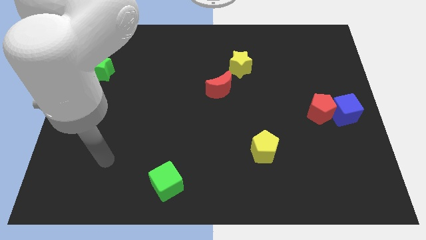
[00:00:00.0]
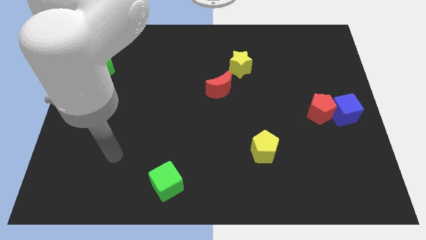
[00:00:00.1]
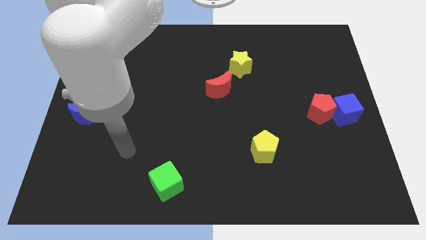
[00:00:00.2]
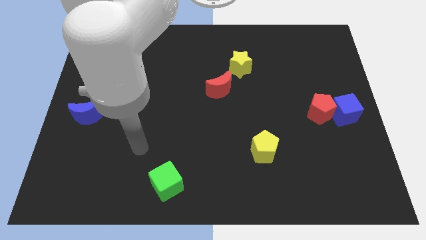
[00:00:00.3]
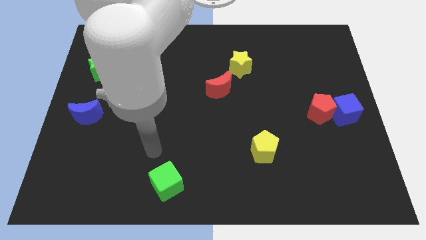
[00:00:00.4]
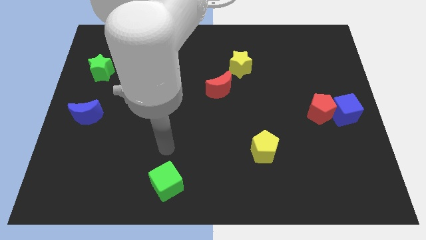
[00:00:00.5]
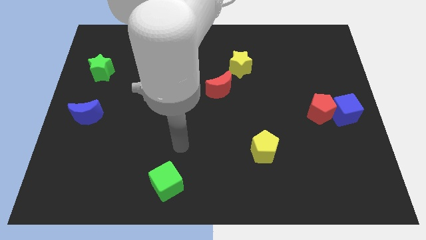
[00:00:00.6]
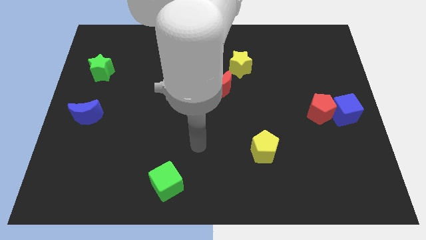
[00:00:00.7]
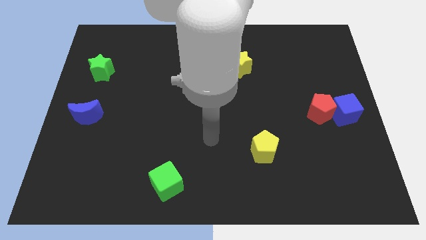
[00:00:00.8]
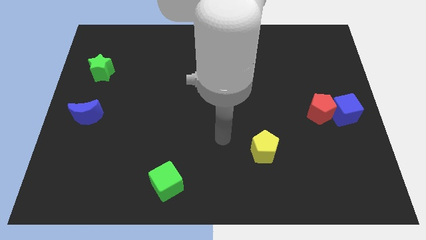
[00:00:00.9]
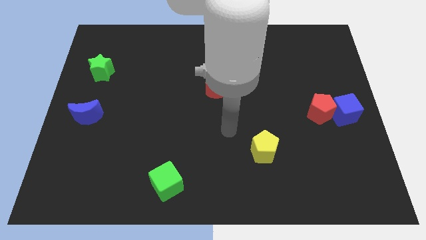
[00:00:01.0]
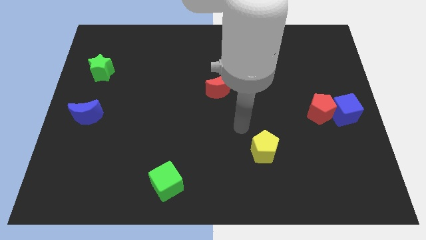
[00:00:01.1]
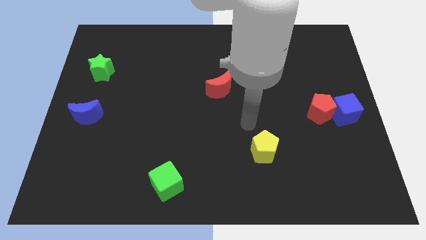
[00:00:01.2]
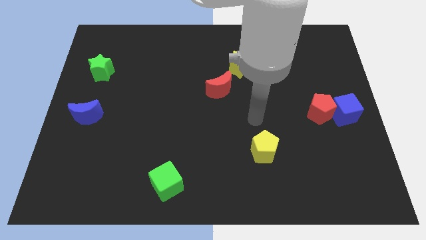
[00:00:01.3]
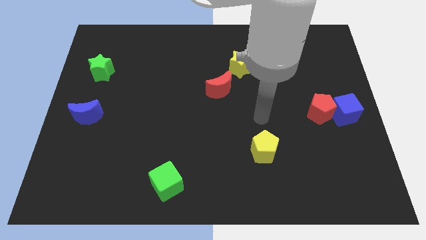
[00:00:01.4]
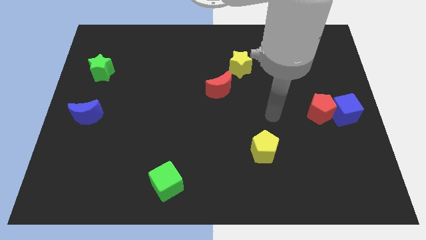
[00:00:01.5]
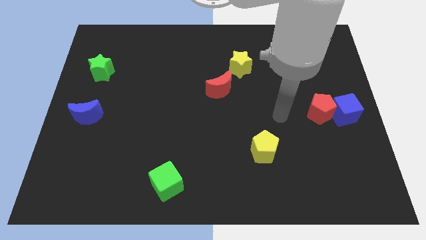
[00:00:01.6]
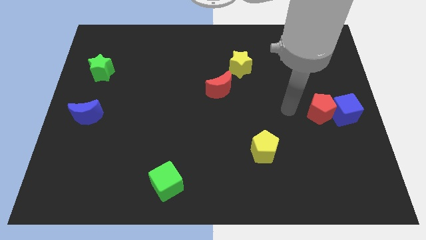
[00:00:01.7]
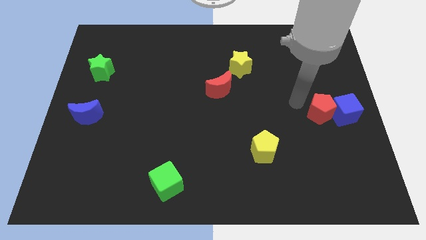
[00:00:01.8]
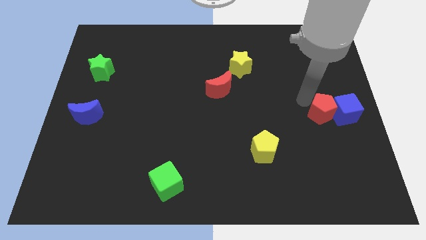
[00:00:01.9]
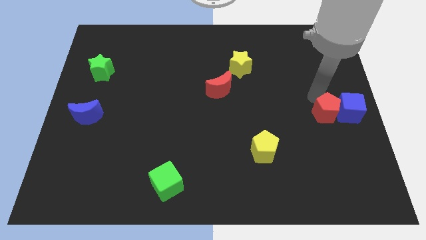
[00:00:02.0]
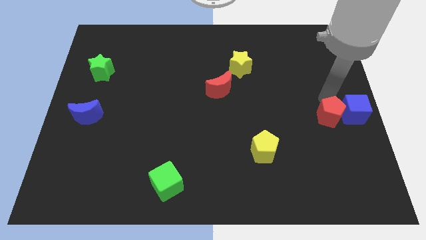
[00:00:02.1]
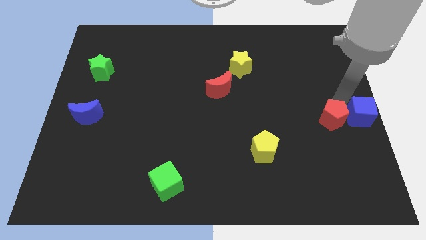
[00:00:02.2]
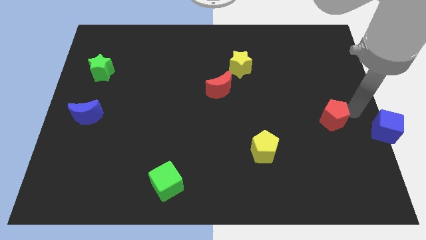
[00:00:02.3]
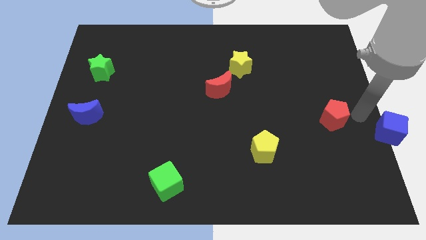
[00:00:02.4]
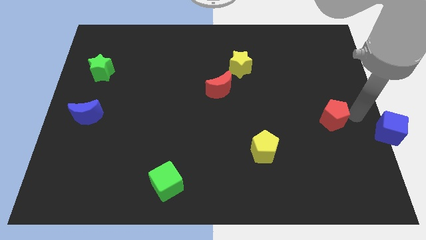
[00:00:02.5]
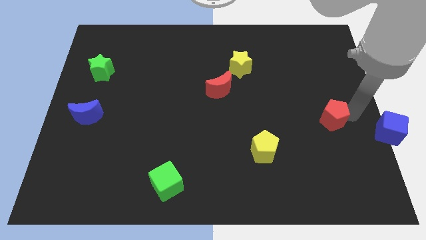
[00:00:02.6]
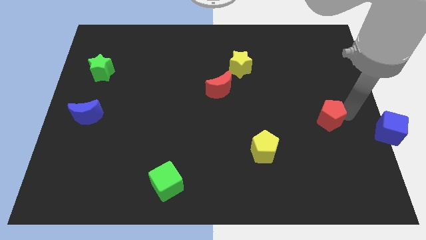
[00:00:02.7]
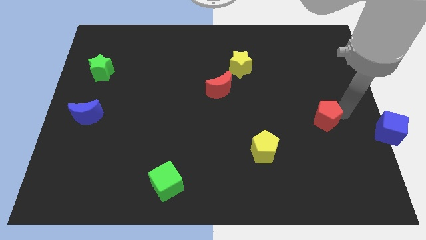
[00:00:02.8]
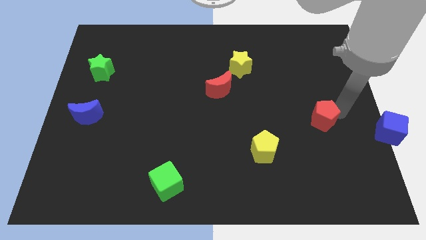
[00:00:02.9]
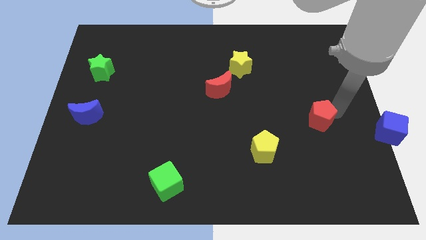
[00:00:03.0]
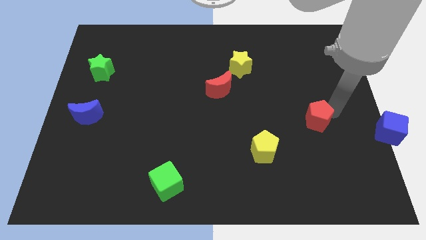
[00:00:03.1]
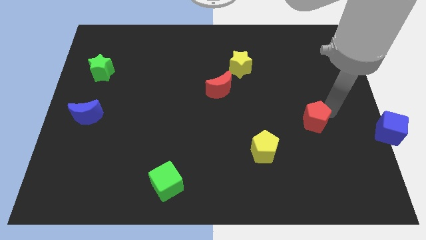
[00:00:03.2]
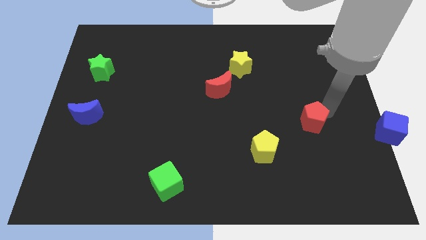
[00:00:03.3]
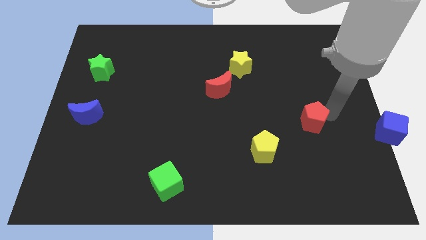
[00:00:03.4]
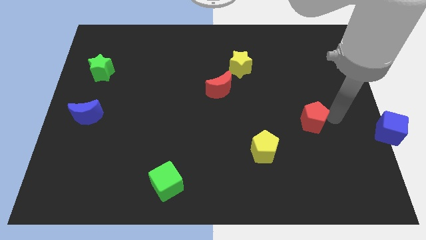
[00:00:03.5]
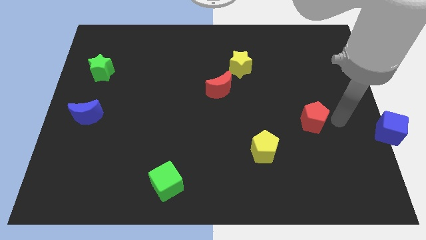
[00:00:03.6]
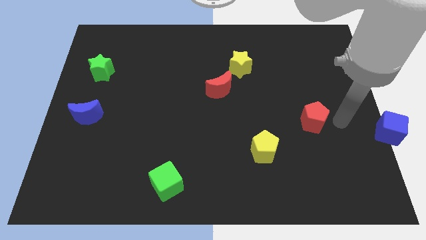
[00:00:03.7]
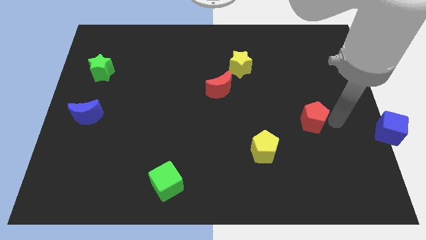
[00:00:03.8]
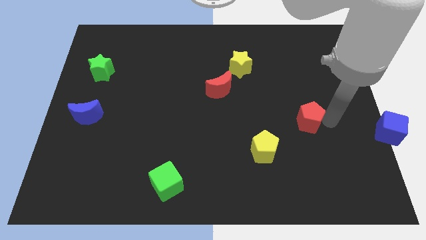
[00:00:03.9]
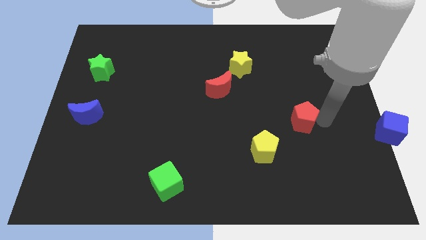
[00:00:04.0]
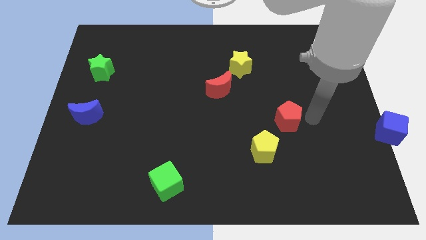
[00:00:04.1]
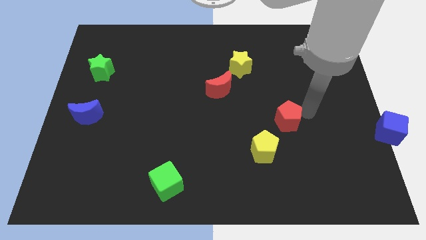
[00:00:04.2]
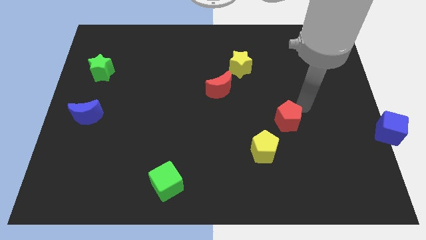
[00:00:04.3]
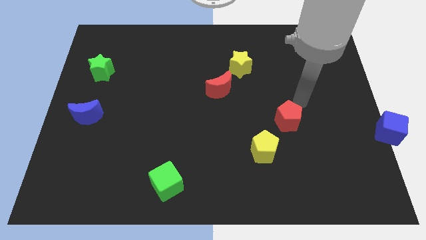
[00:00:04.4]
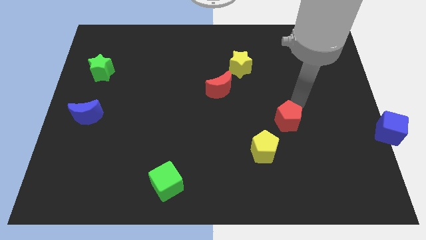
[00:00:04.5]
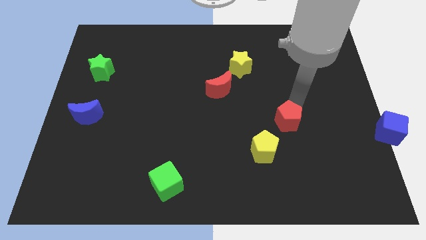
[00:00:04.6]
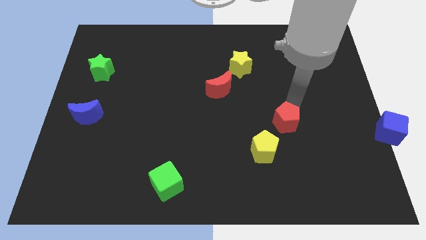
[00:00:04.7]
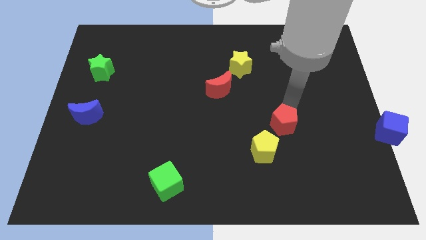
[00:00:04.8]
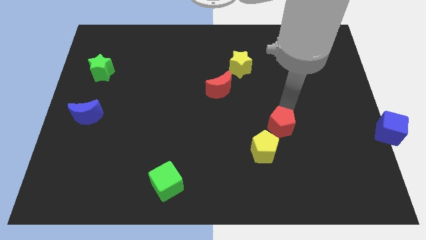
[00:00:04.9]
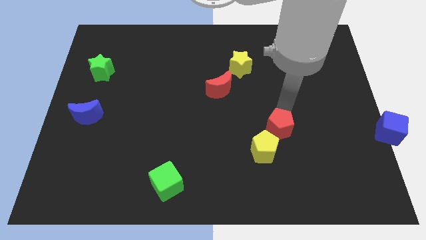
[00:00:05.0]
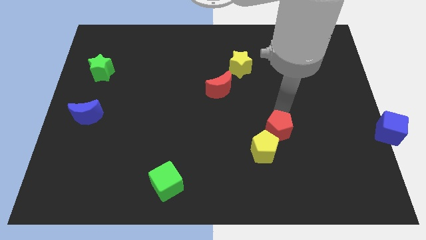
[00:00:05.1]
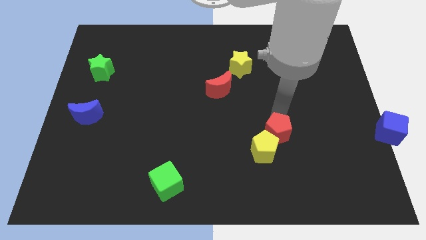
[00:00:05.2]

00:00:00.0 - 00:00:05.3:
move the red pentagon to the yellow pentagon

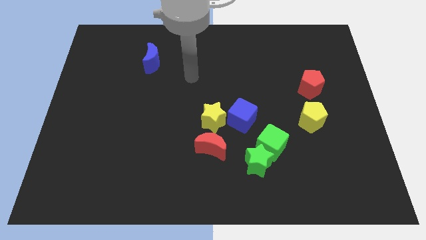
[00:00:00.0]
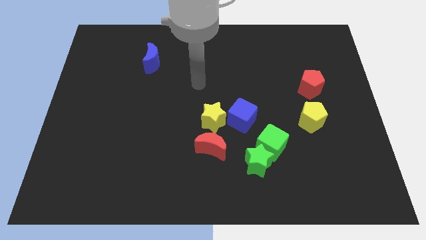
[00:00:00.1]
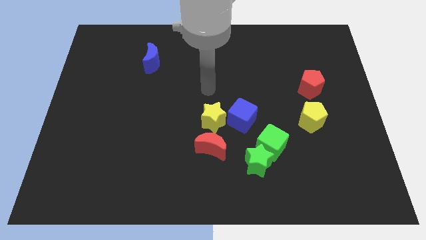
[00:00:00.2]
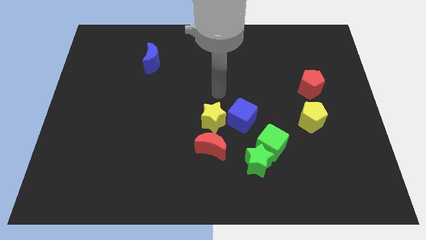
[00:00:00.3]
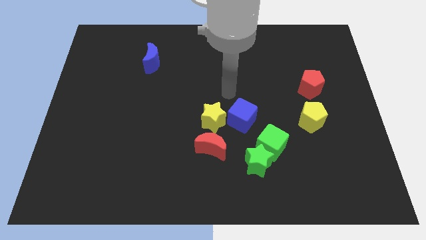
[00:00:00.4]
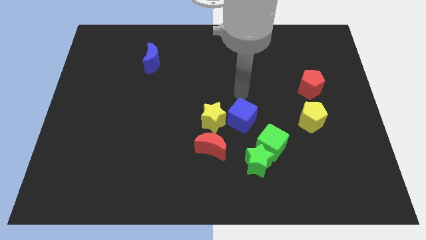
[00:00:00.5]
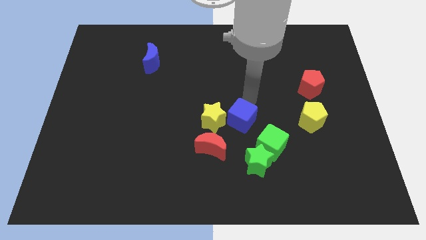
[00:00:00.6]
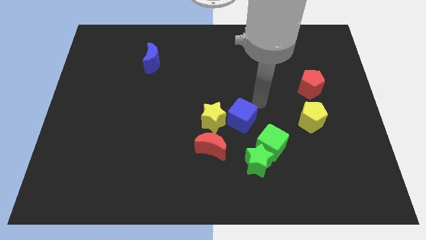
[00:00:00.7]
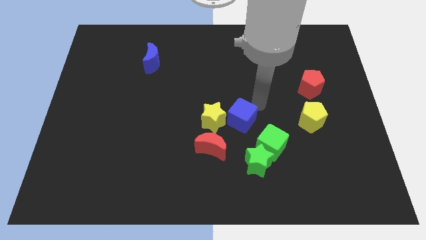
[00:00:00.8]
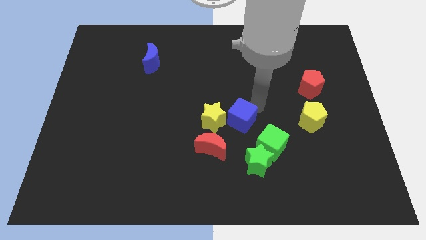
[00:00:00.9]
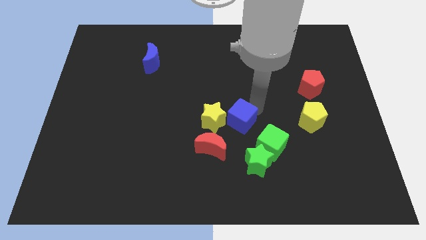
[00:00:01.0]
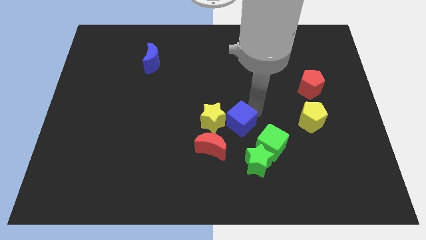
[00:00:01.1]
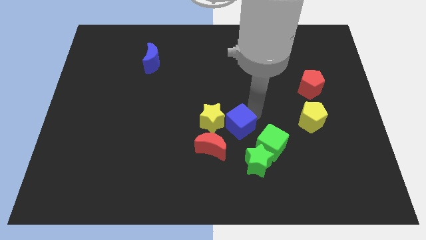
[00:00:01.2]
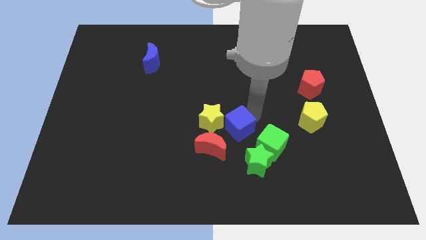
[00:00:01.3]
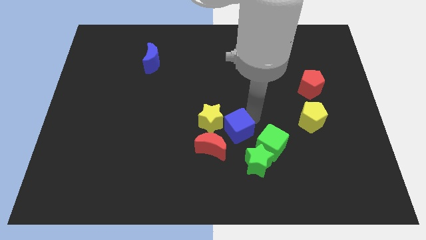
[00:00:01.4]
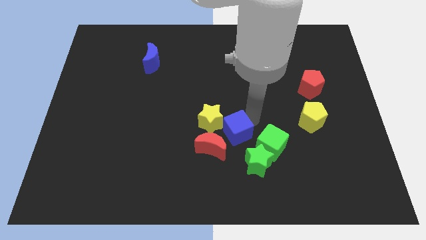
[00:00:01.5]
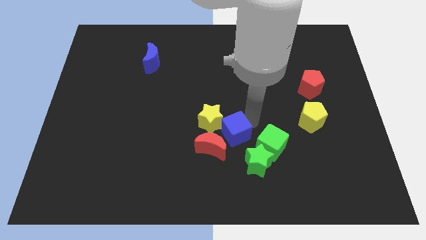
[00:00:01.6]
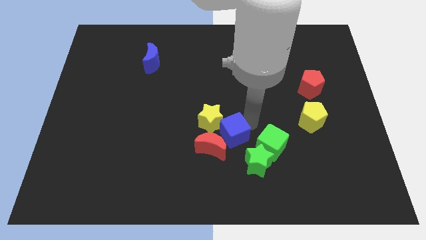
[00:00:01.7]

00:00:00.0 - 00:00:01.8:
move the blue cube towards the red moon

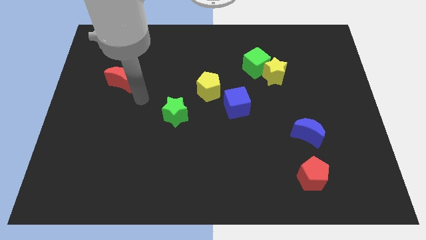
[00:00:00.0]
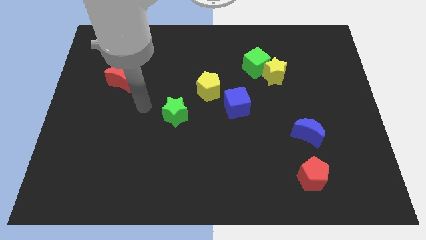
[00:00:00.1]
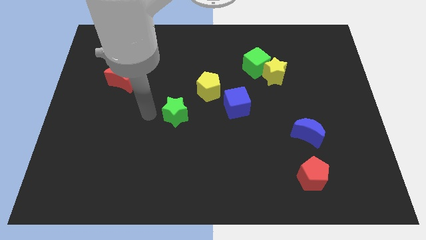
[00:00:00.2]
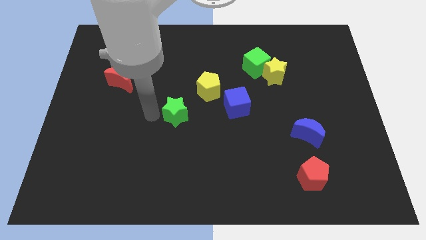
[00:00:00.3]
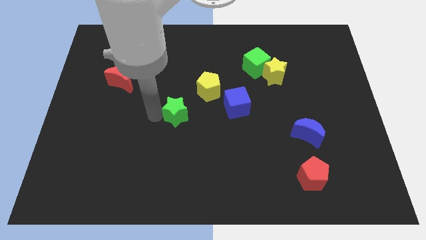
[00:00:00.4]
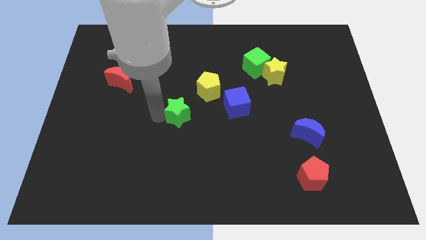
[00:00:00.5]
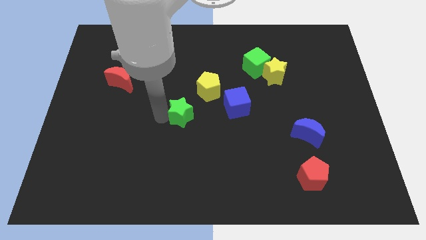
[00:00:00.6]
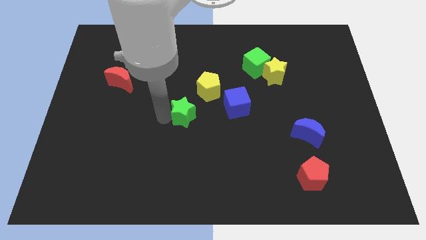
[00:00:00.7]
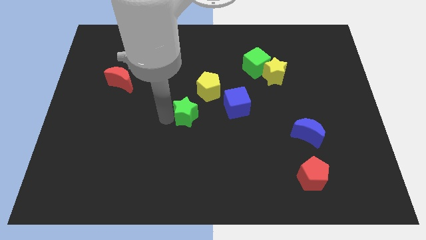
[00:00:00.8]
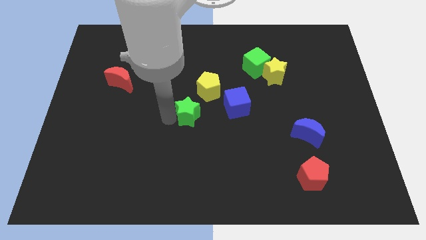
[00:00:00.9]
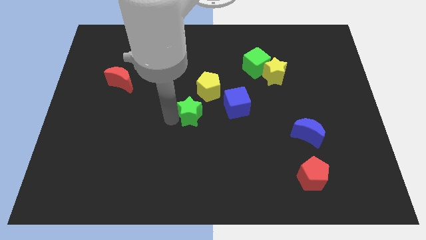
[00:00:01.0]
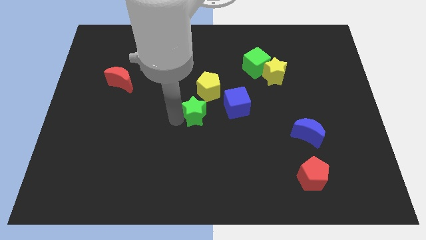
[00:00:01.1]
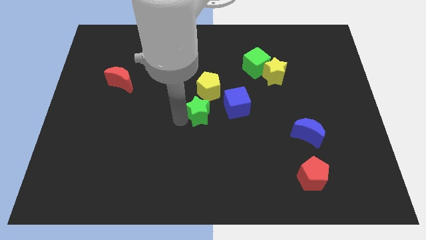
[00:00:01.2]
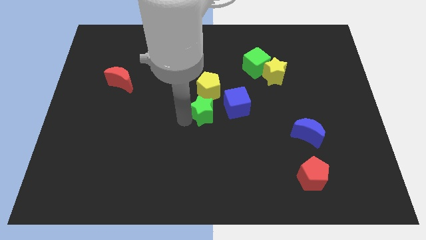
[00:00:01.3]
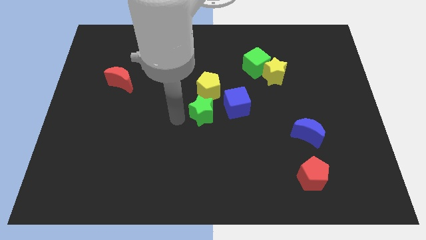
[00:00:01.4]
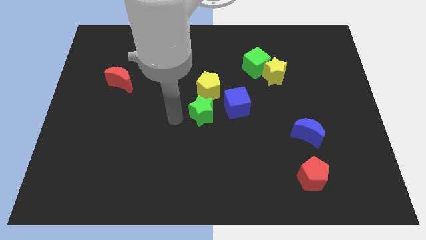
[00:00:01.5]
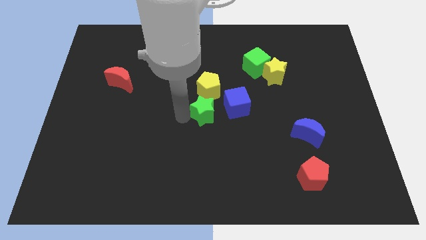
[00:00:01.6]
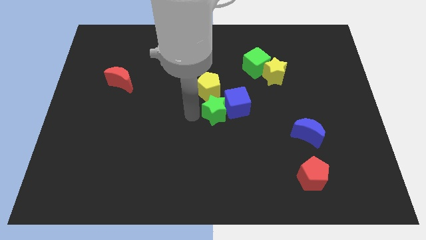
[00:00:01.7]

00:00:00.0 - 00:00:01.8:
put the green star next to the blue cube
